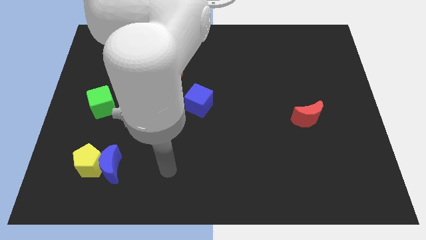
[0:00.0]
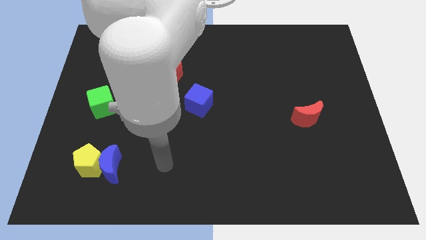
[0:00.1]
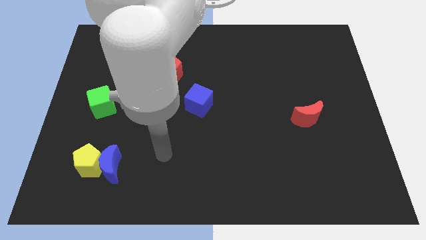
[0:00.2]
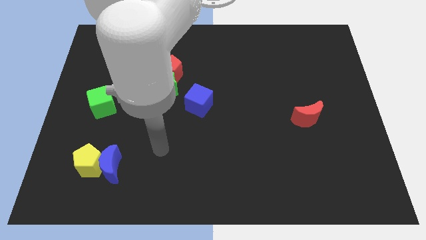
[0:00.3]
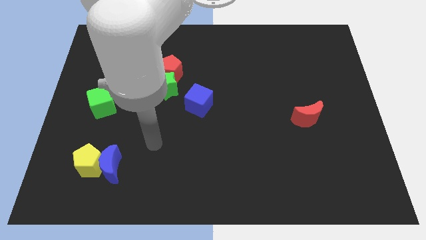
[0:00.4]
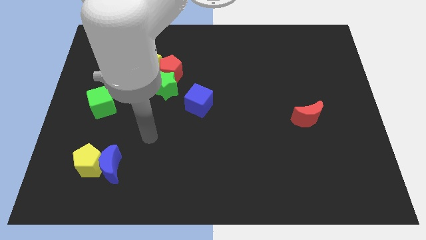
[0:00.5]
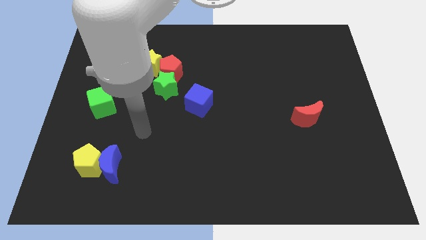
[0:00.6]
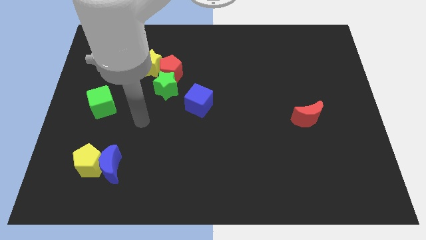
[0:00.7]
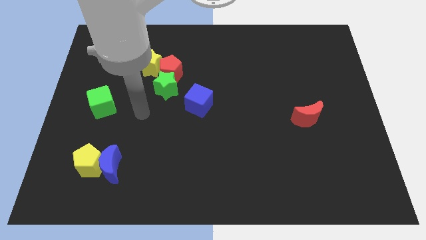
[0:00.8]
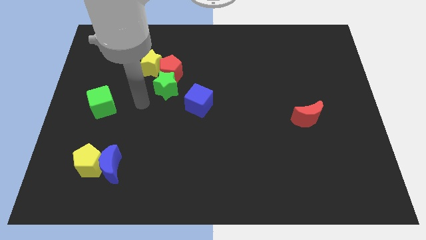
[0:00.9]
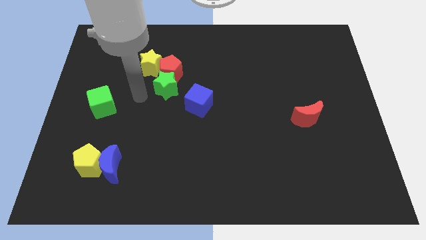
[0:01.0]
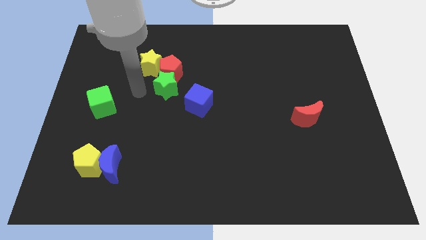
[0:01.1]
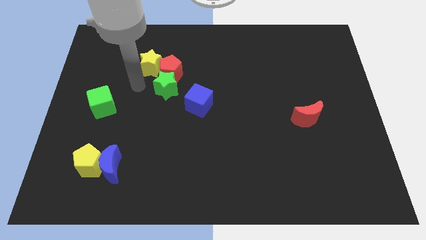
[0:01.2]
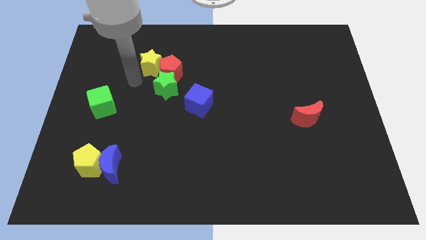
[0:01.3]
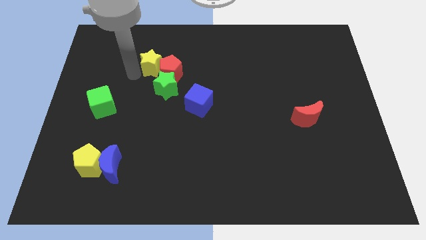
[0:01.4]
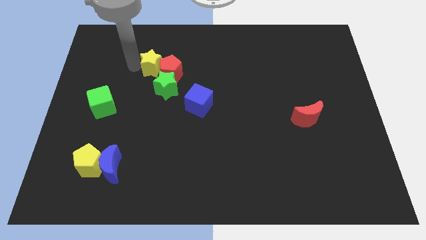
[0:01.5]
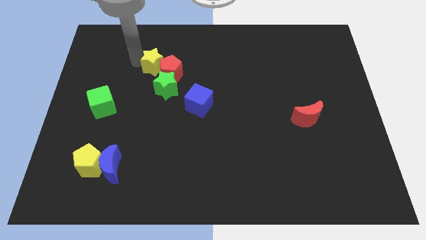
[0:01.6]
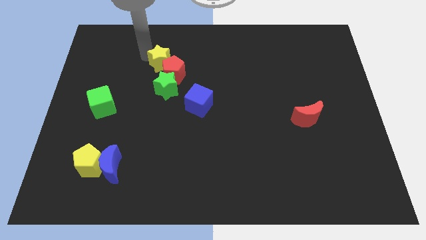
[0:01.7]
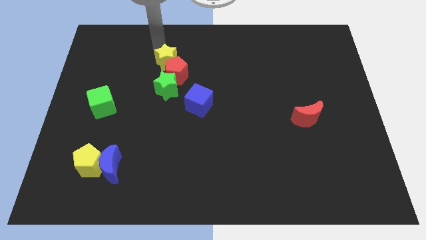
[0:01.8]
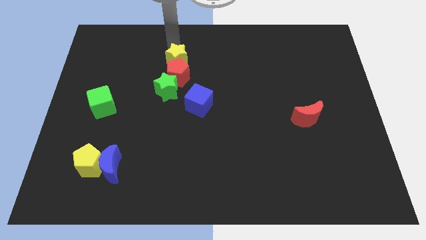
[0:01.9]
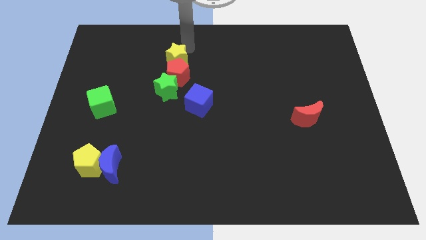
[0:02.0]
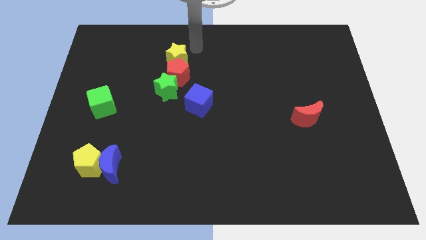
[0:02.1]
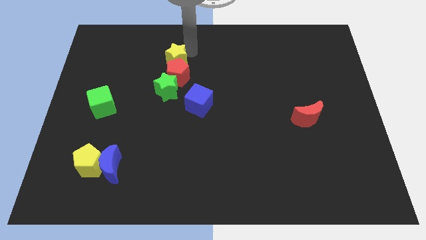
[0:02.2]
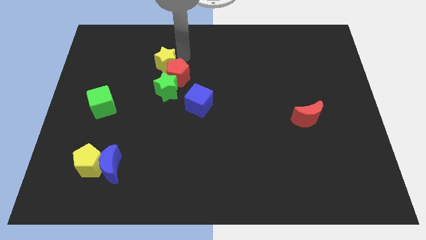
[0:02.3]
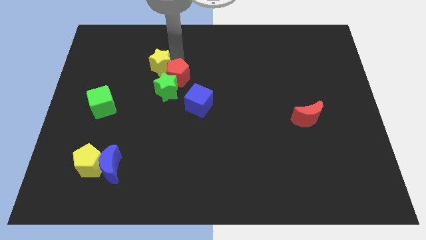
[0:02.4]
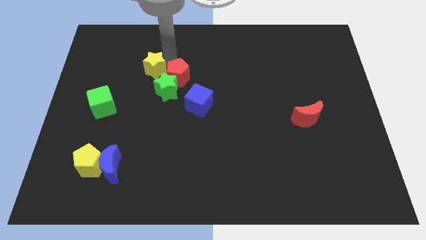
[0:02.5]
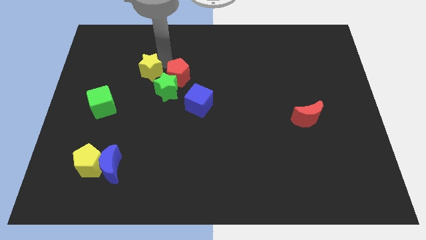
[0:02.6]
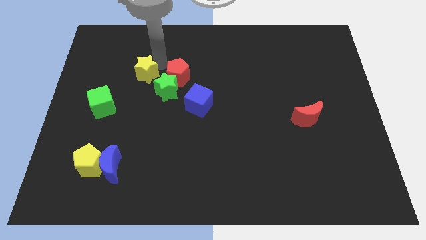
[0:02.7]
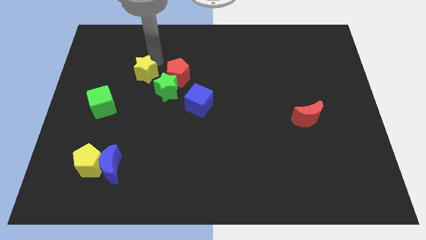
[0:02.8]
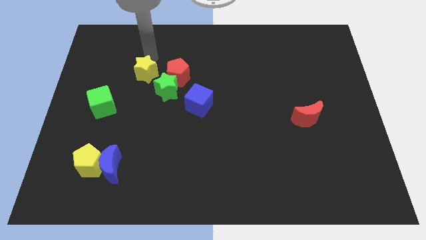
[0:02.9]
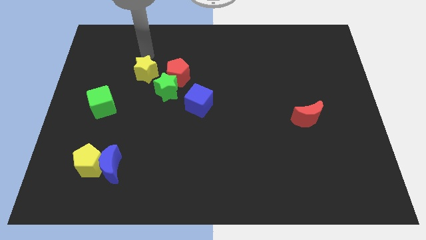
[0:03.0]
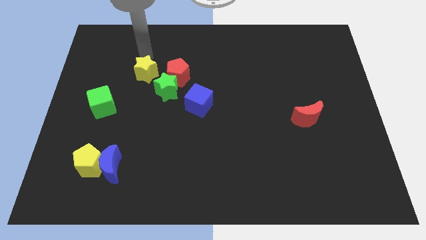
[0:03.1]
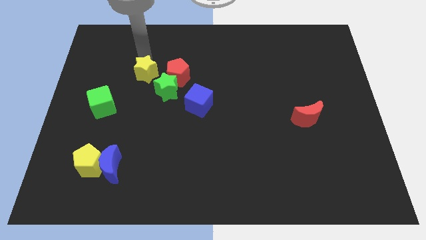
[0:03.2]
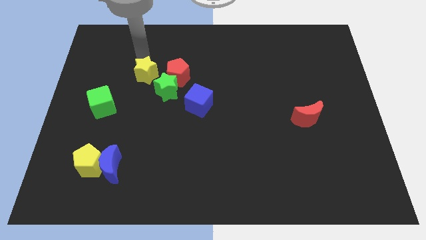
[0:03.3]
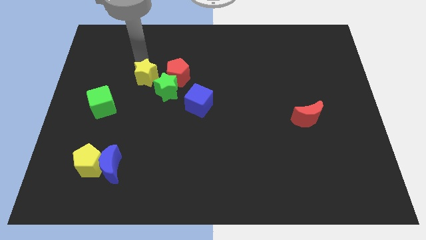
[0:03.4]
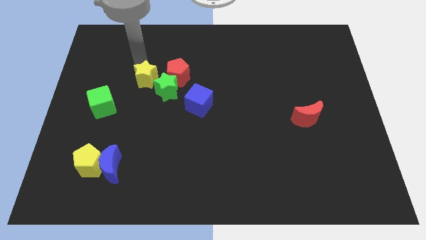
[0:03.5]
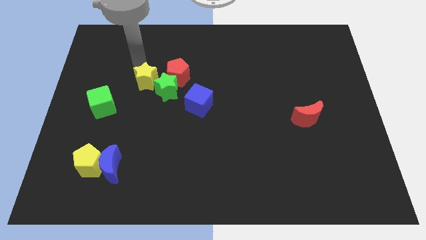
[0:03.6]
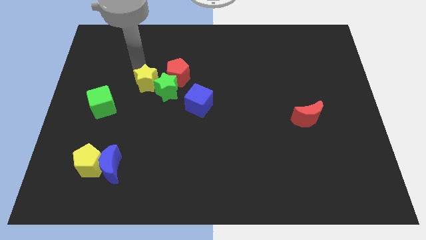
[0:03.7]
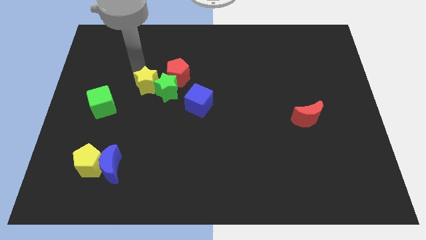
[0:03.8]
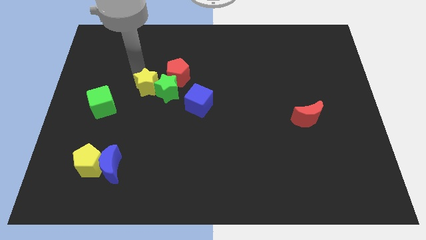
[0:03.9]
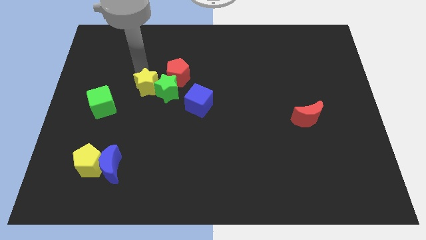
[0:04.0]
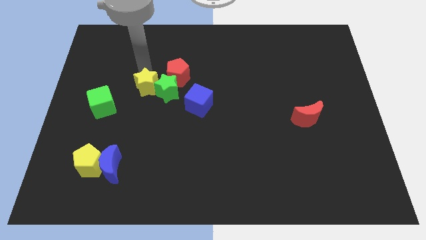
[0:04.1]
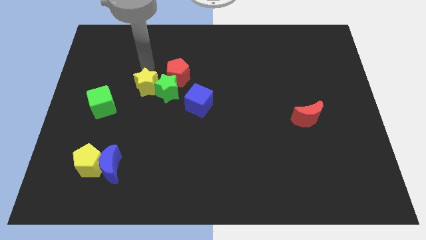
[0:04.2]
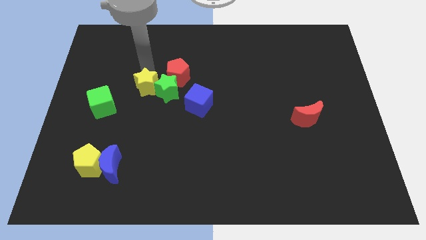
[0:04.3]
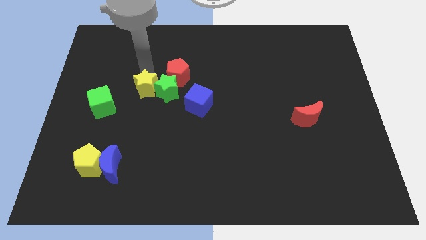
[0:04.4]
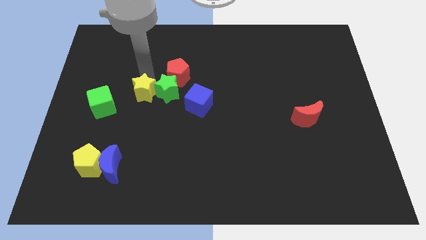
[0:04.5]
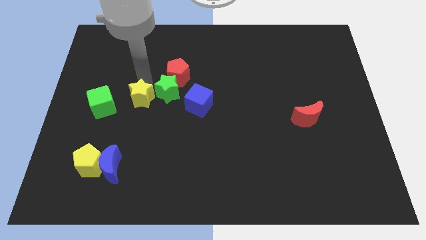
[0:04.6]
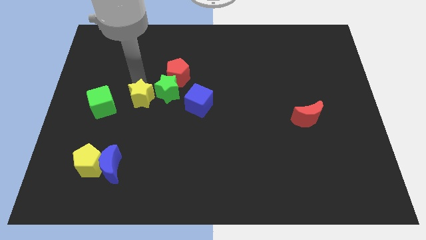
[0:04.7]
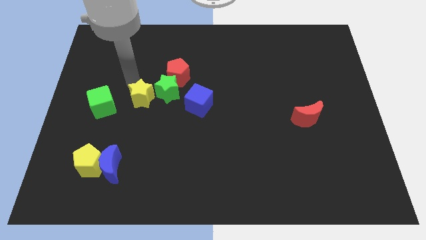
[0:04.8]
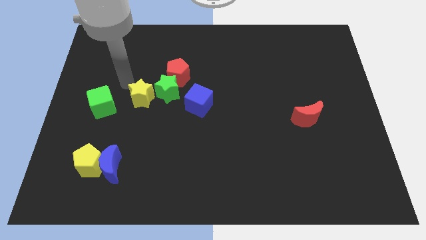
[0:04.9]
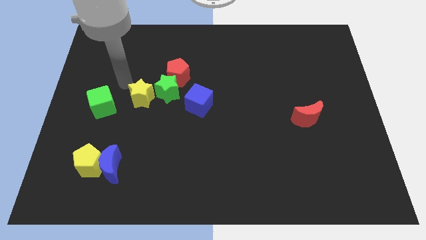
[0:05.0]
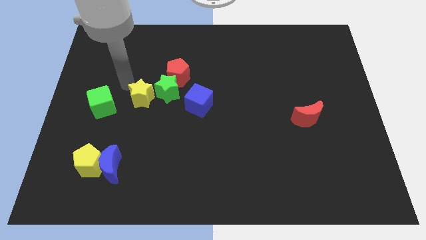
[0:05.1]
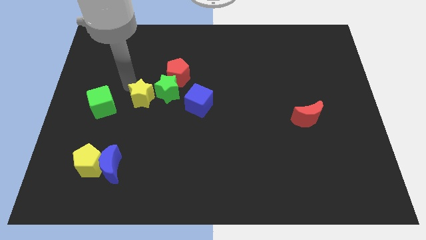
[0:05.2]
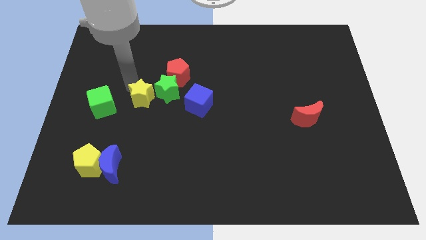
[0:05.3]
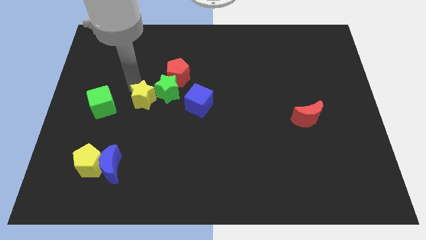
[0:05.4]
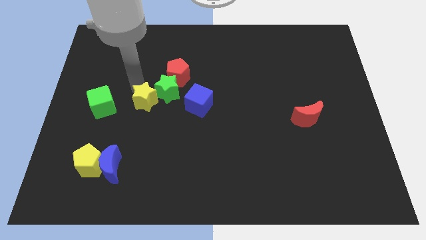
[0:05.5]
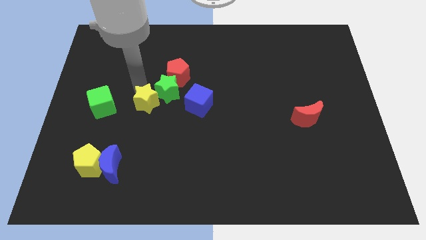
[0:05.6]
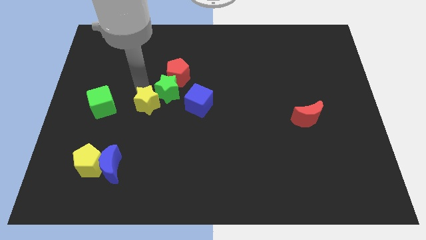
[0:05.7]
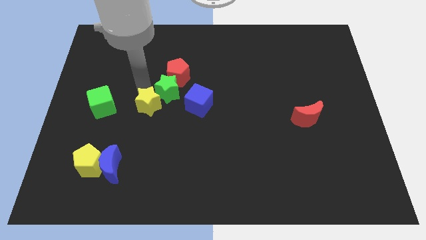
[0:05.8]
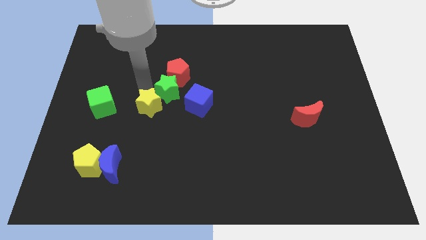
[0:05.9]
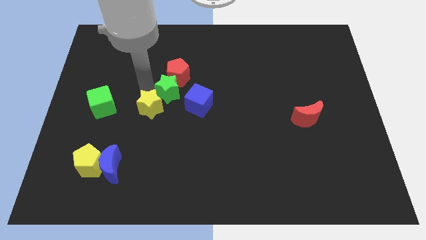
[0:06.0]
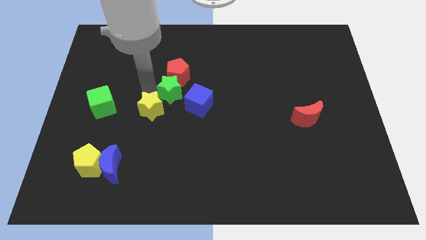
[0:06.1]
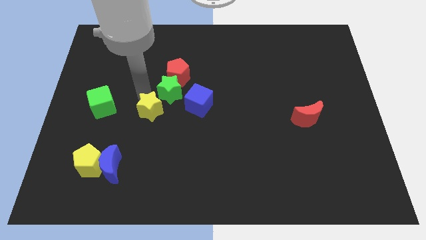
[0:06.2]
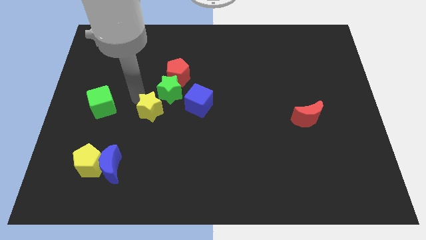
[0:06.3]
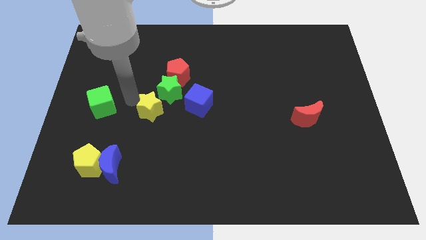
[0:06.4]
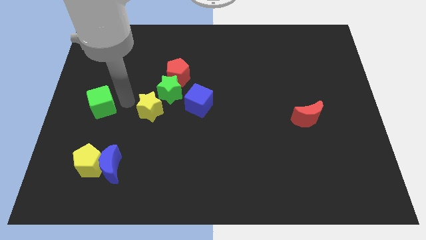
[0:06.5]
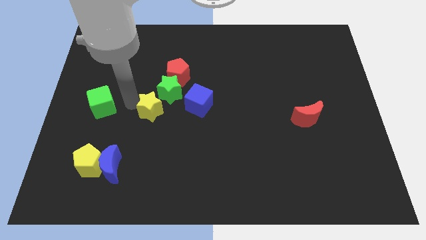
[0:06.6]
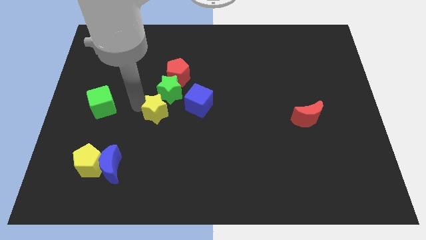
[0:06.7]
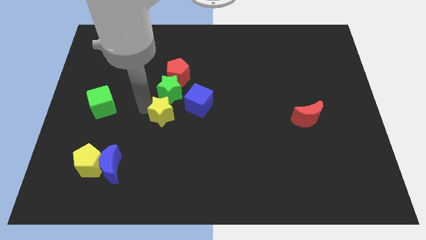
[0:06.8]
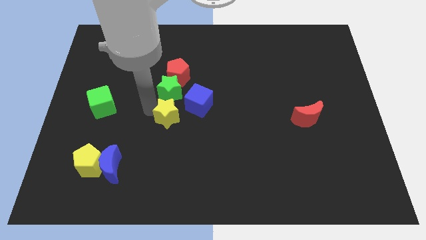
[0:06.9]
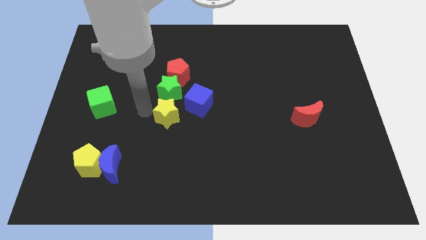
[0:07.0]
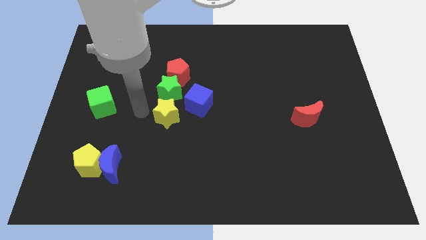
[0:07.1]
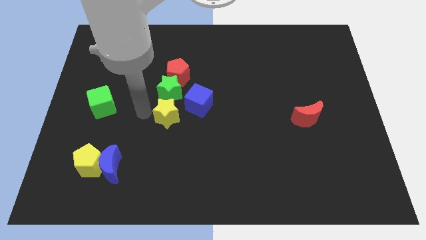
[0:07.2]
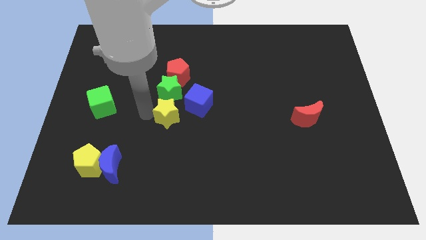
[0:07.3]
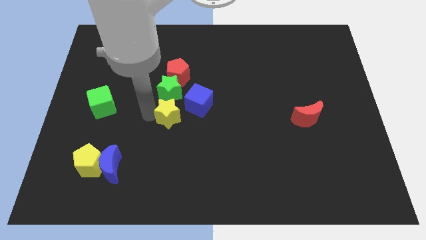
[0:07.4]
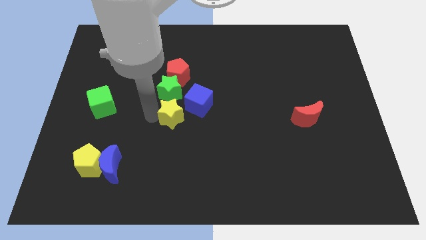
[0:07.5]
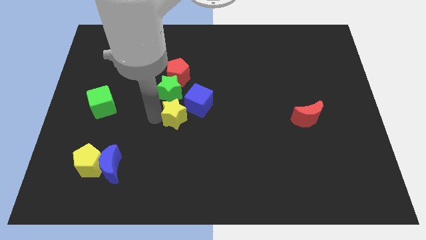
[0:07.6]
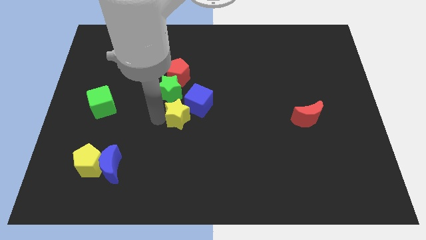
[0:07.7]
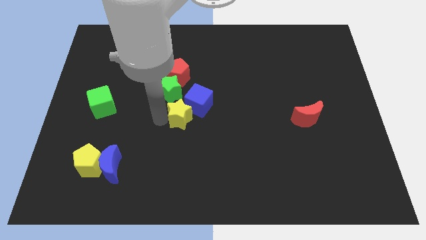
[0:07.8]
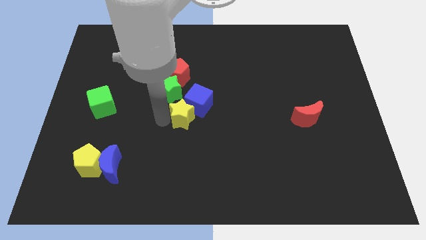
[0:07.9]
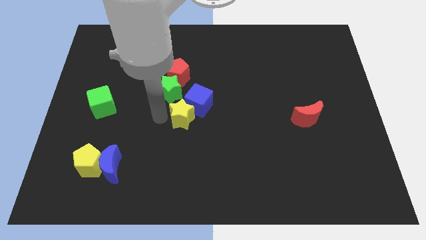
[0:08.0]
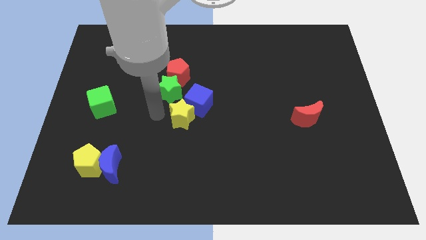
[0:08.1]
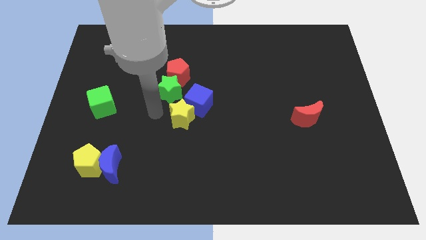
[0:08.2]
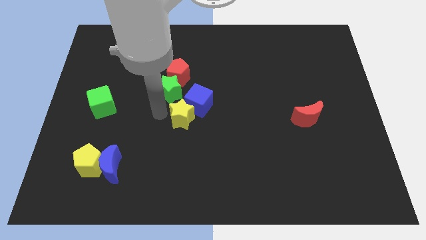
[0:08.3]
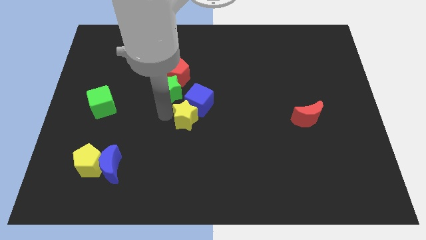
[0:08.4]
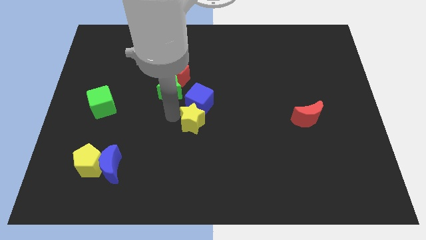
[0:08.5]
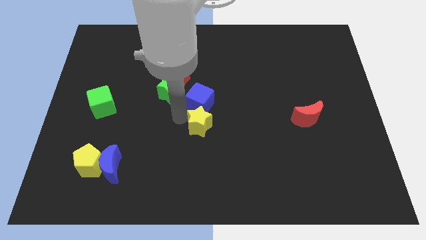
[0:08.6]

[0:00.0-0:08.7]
push the yellow star down and to the right diagonally
